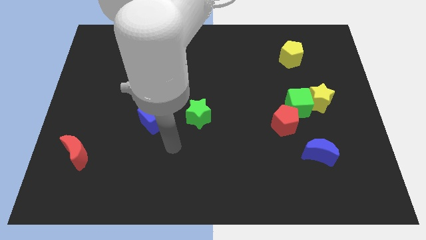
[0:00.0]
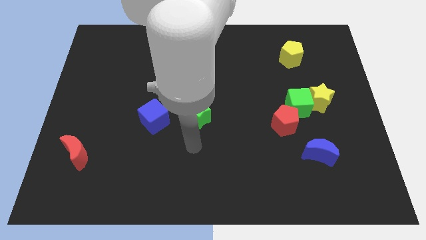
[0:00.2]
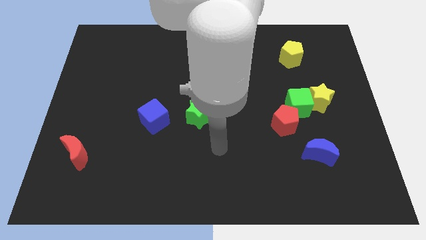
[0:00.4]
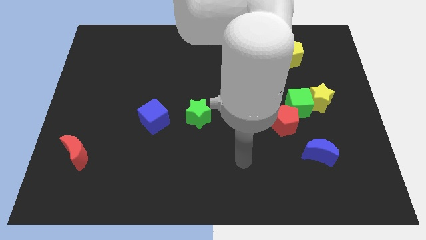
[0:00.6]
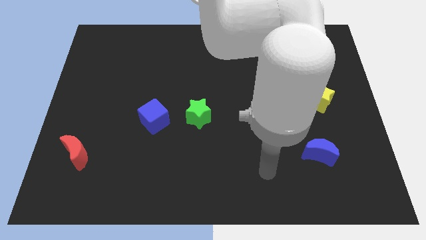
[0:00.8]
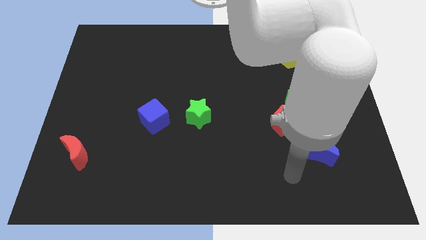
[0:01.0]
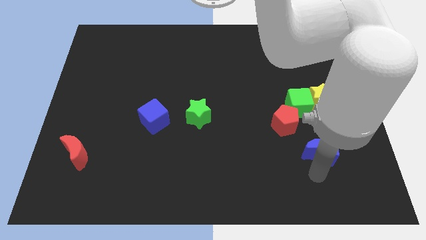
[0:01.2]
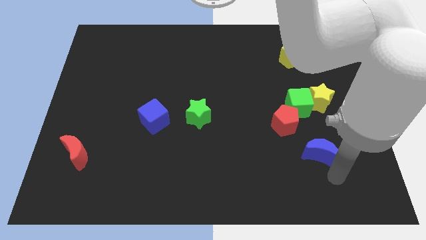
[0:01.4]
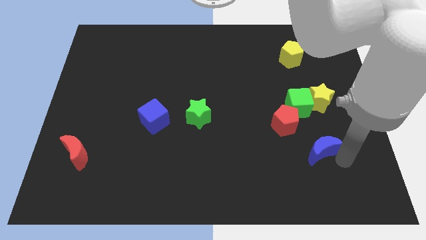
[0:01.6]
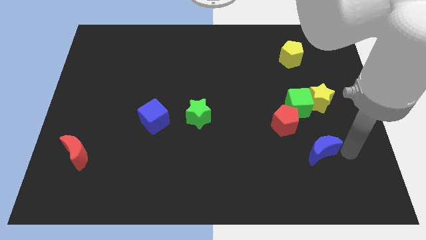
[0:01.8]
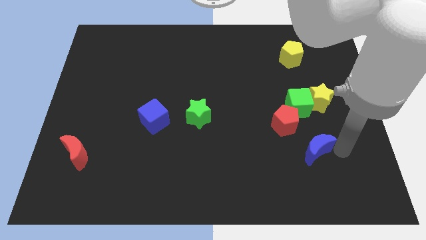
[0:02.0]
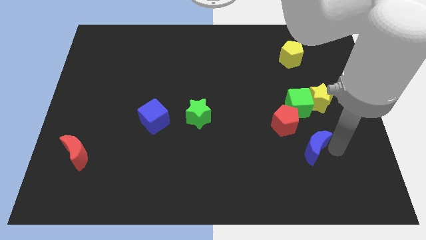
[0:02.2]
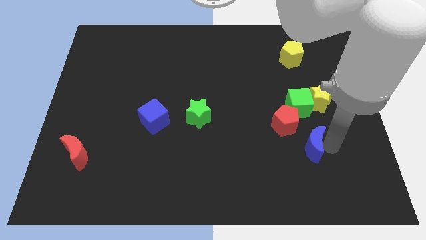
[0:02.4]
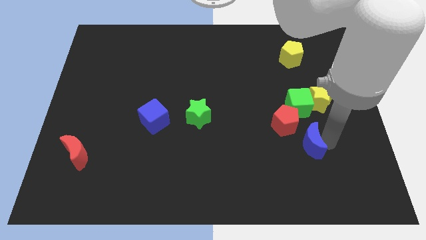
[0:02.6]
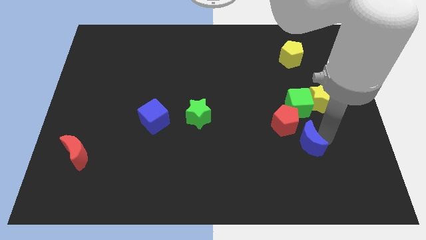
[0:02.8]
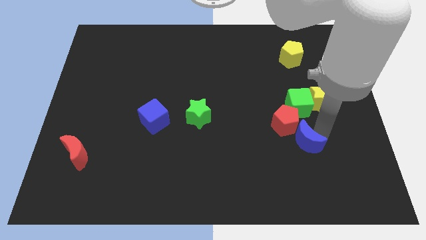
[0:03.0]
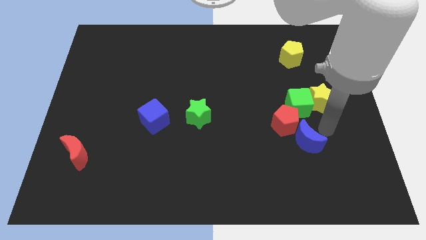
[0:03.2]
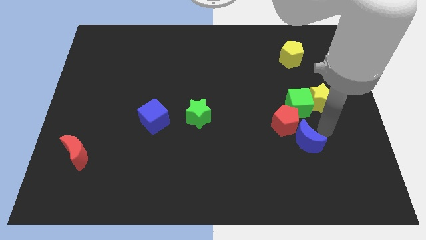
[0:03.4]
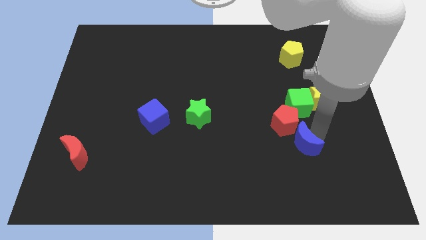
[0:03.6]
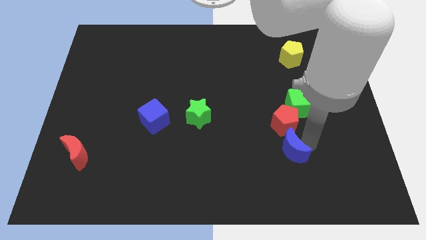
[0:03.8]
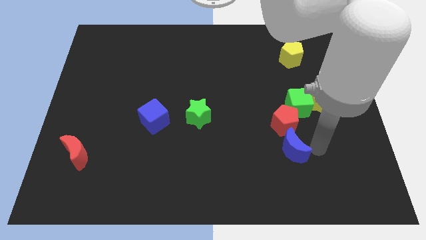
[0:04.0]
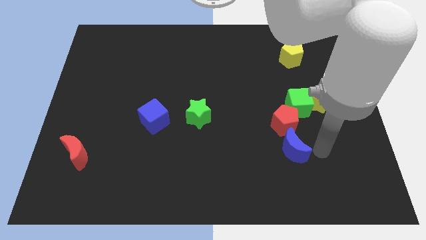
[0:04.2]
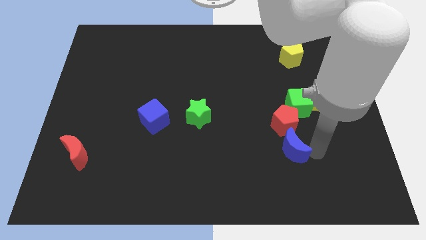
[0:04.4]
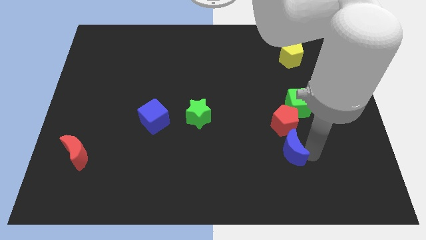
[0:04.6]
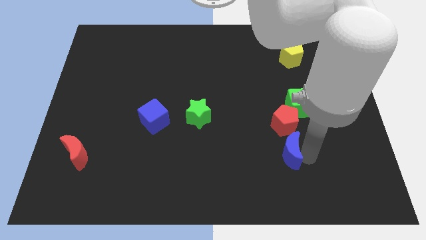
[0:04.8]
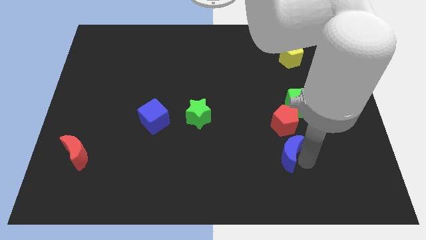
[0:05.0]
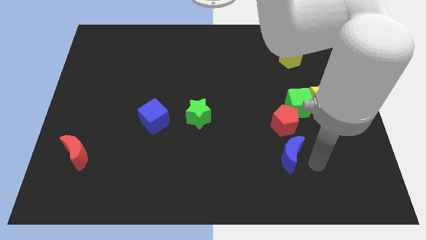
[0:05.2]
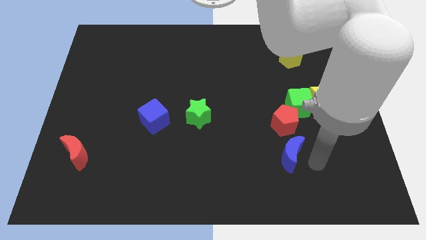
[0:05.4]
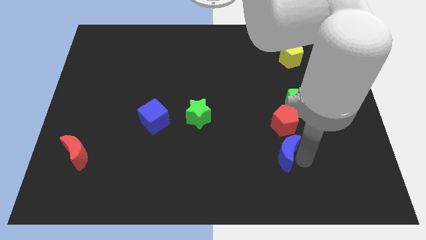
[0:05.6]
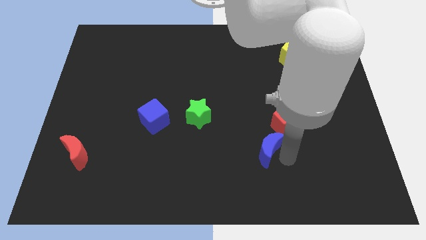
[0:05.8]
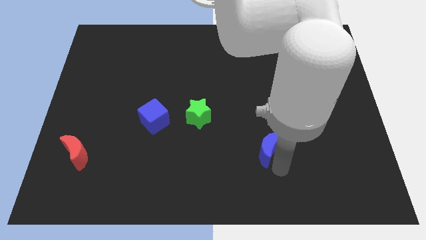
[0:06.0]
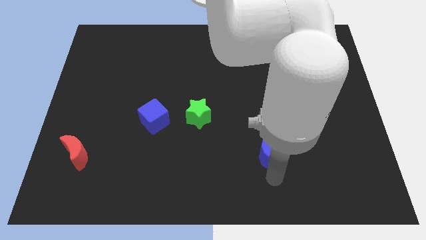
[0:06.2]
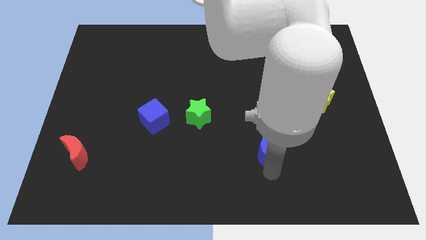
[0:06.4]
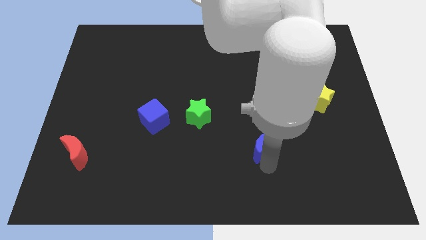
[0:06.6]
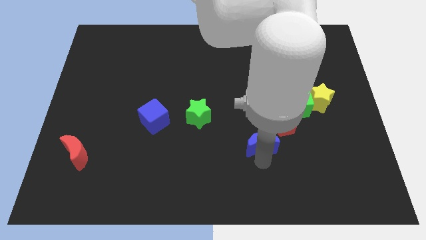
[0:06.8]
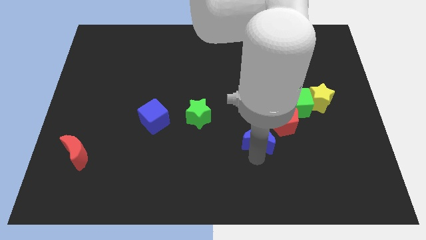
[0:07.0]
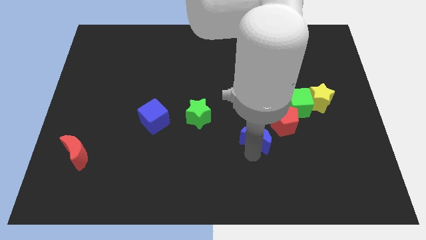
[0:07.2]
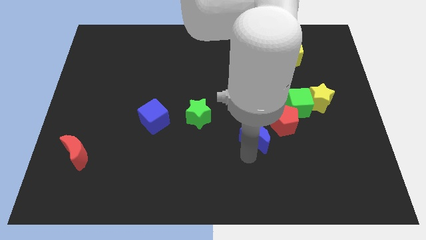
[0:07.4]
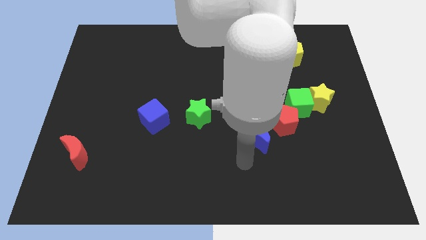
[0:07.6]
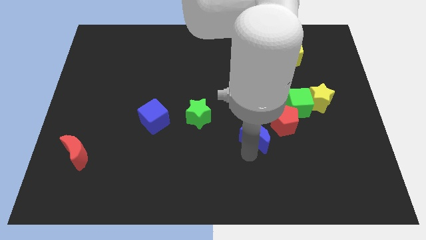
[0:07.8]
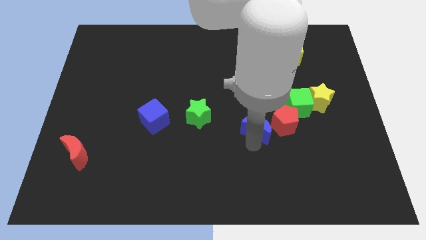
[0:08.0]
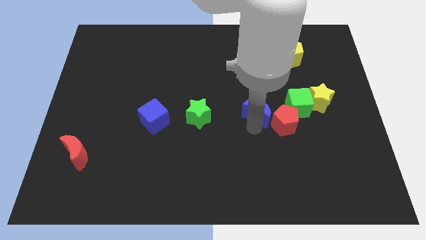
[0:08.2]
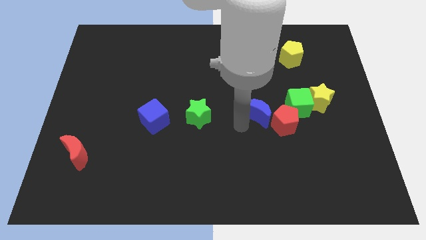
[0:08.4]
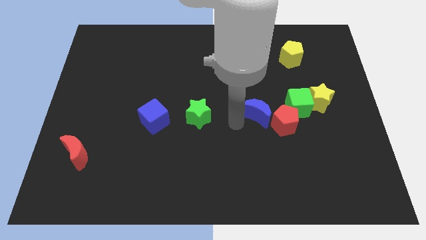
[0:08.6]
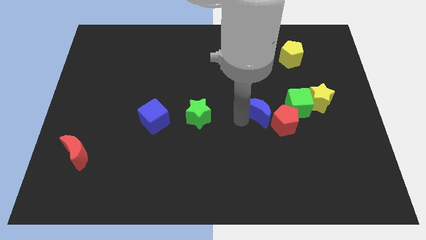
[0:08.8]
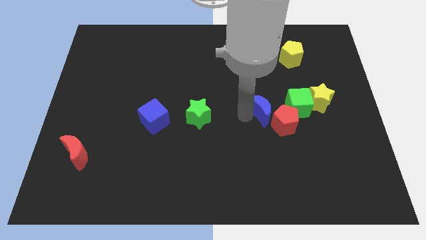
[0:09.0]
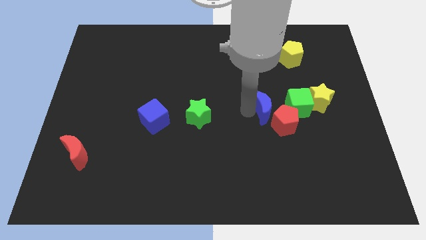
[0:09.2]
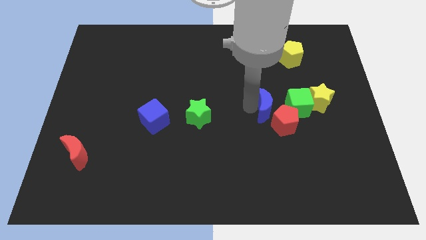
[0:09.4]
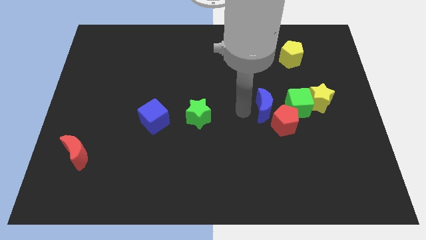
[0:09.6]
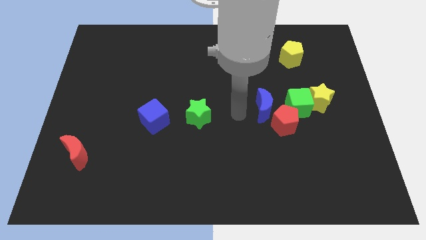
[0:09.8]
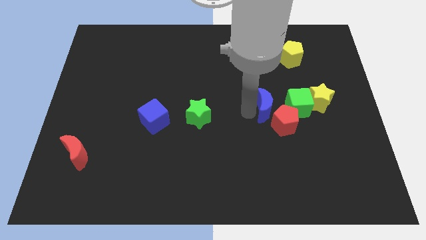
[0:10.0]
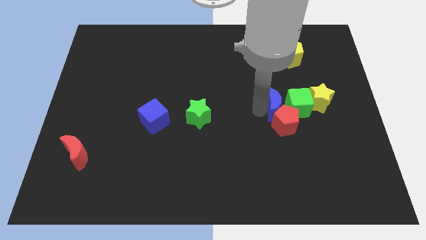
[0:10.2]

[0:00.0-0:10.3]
move the blue moon next to the green cube

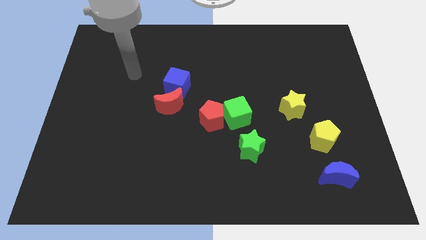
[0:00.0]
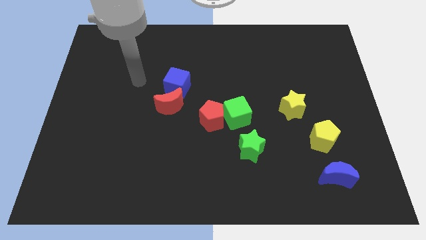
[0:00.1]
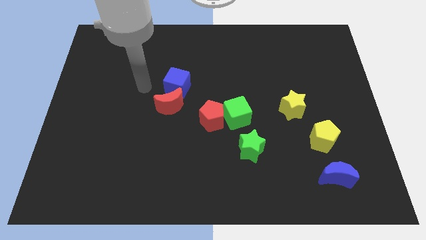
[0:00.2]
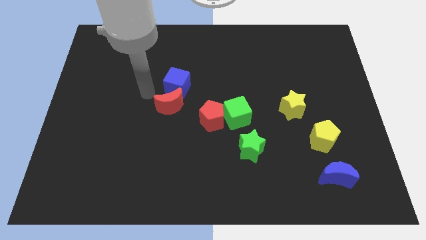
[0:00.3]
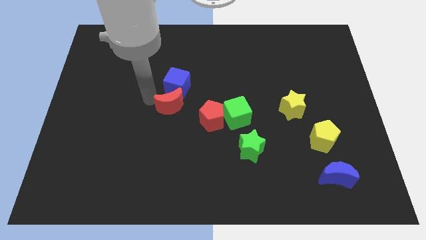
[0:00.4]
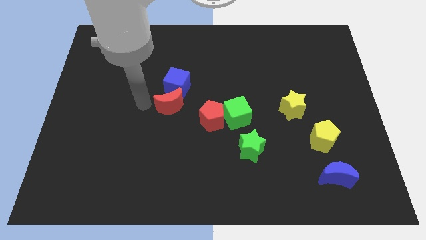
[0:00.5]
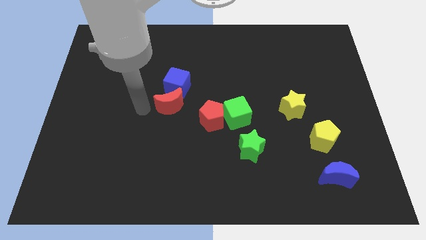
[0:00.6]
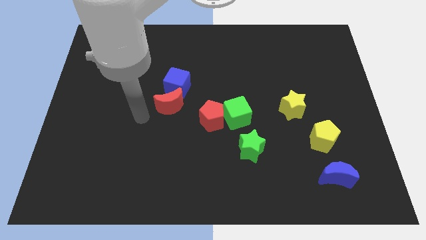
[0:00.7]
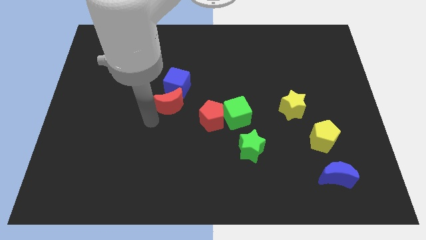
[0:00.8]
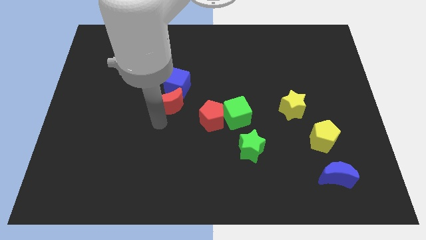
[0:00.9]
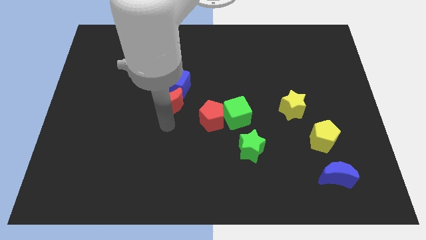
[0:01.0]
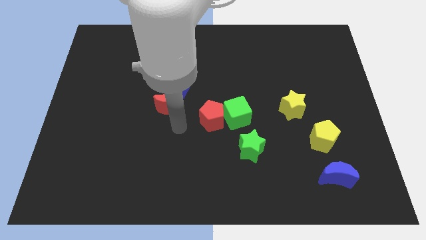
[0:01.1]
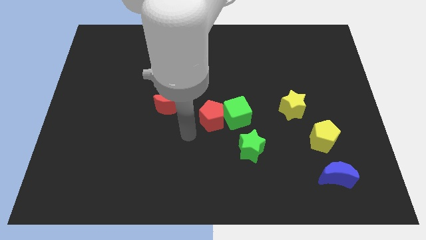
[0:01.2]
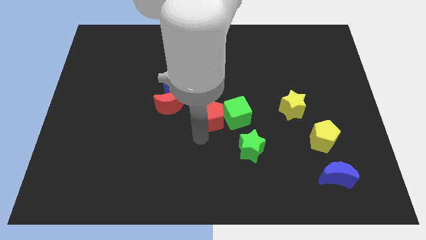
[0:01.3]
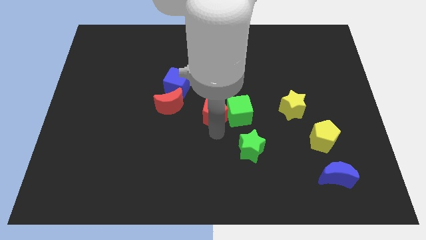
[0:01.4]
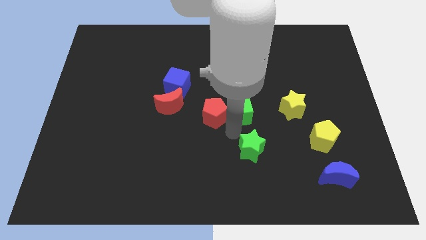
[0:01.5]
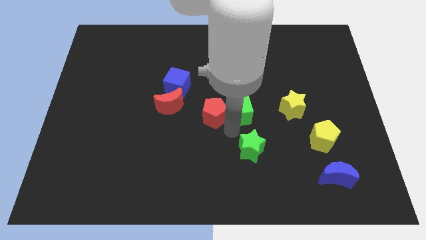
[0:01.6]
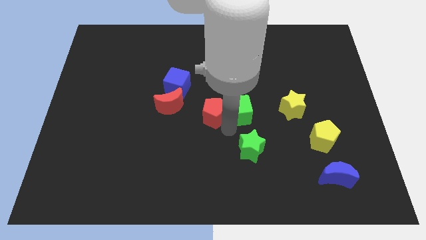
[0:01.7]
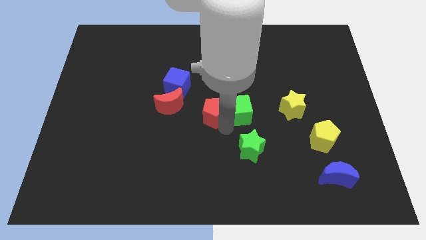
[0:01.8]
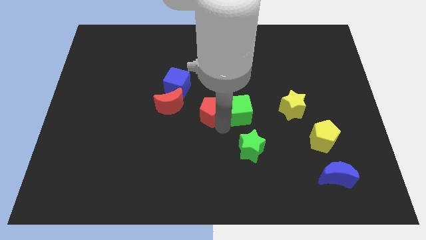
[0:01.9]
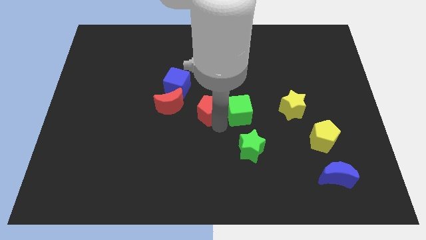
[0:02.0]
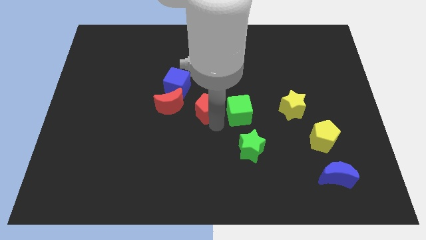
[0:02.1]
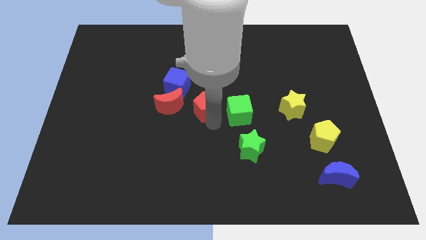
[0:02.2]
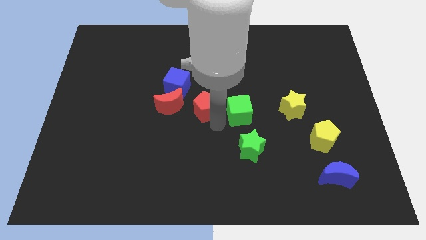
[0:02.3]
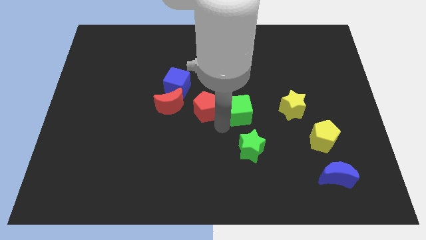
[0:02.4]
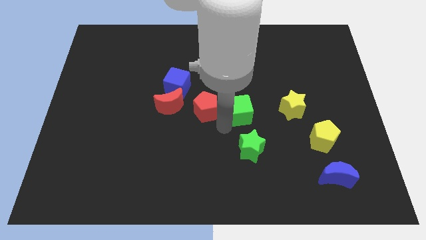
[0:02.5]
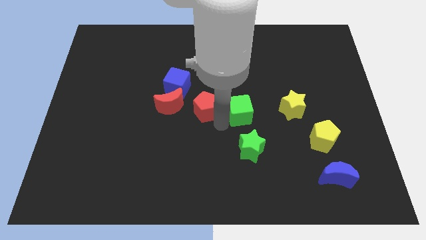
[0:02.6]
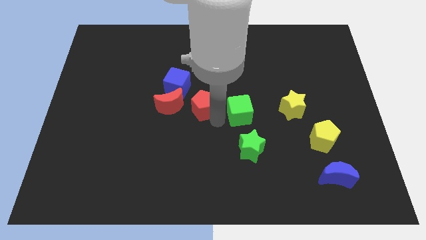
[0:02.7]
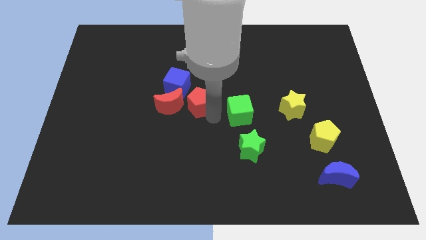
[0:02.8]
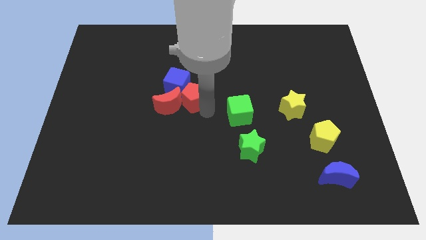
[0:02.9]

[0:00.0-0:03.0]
move the red pentagon close to the blue cube
